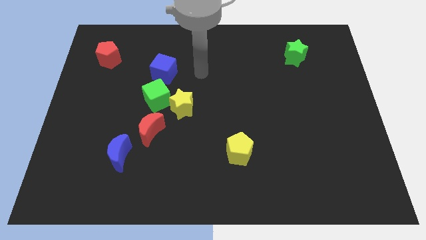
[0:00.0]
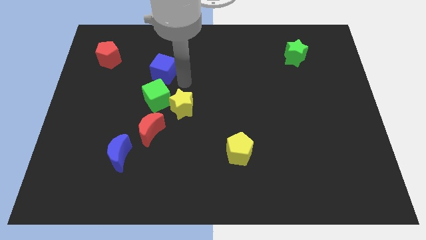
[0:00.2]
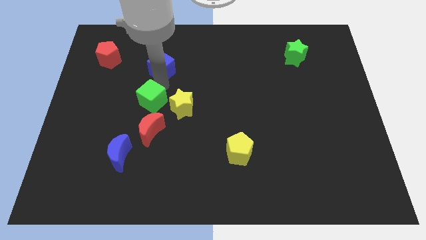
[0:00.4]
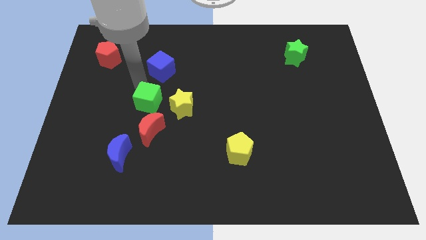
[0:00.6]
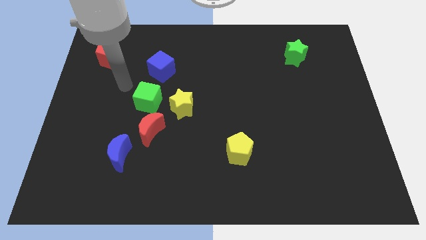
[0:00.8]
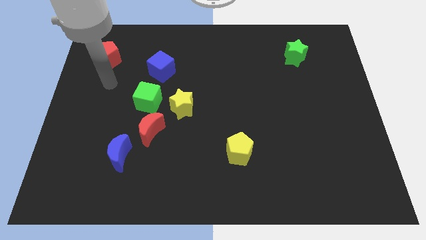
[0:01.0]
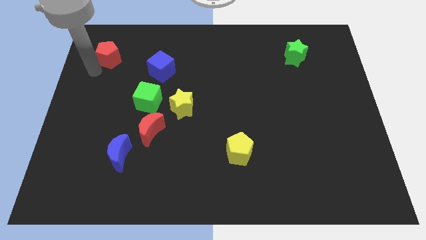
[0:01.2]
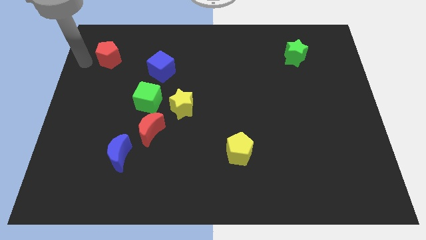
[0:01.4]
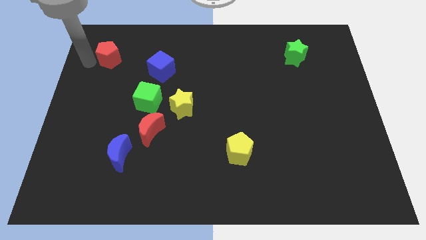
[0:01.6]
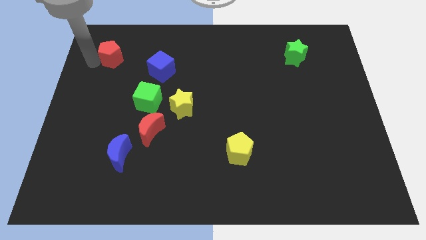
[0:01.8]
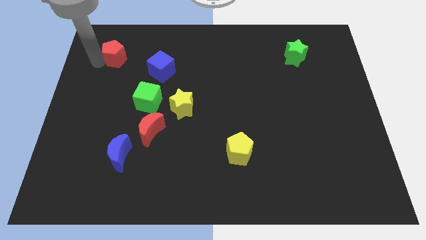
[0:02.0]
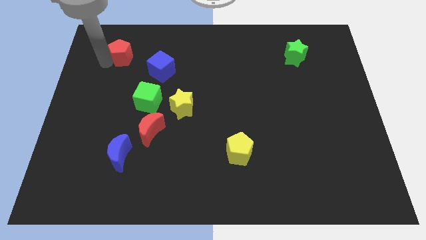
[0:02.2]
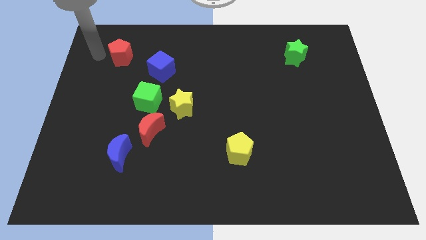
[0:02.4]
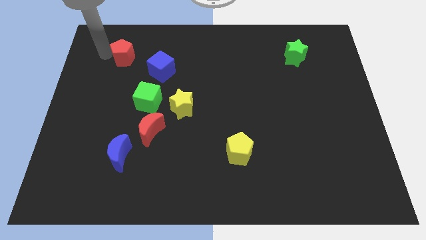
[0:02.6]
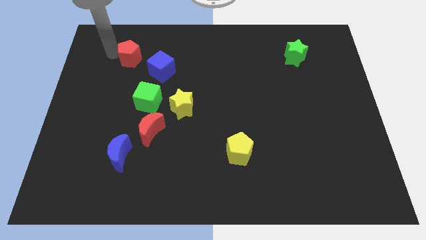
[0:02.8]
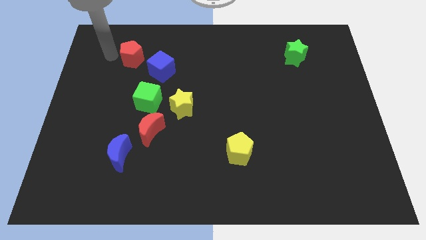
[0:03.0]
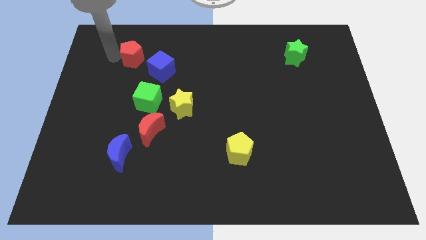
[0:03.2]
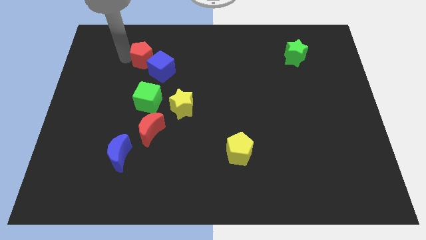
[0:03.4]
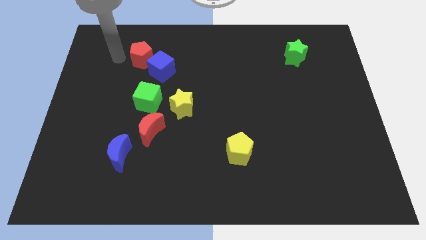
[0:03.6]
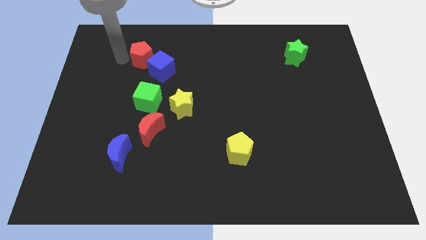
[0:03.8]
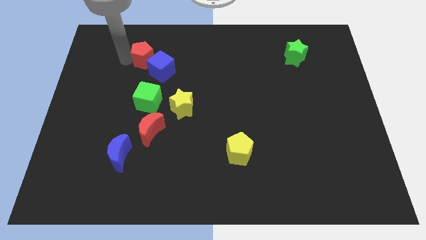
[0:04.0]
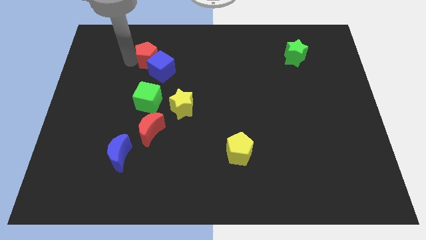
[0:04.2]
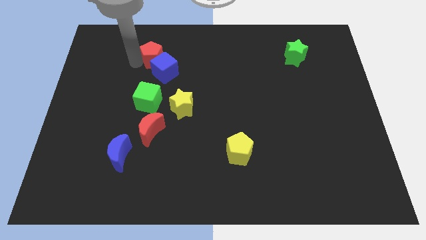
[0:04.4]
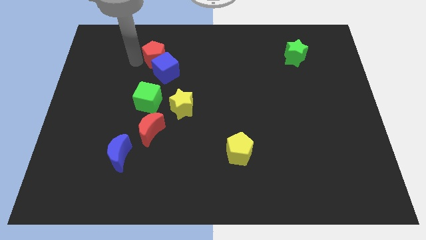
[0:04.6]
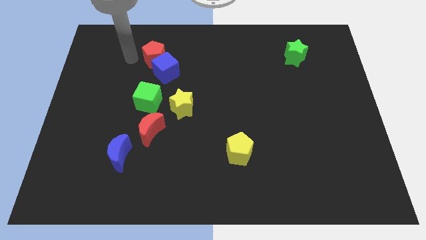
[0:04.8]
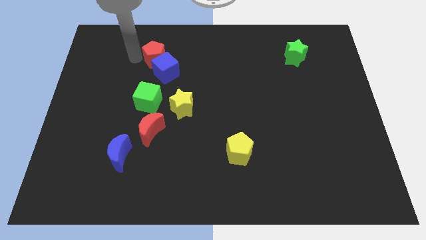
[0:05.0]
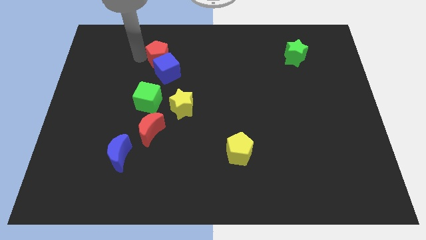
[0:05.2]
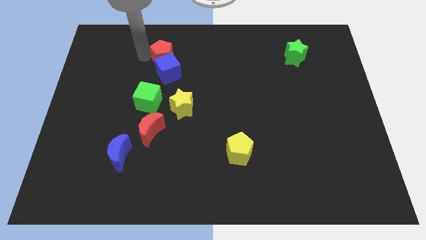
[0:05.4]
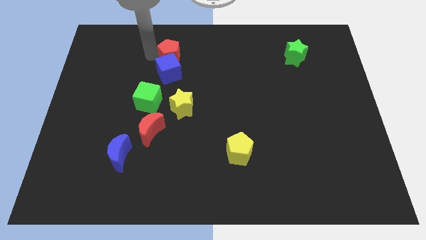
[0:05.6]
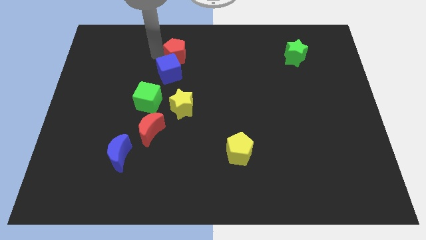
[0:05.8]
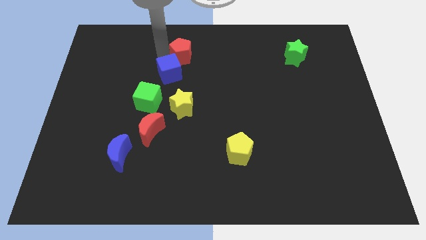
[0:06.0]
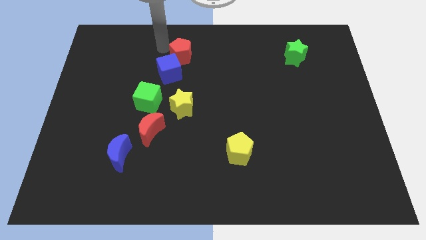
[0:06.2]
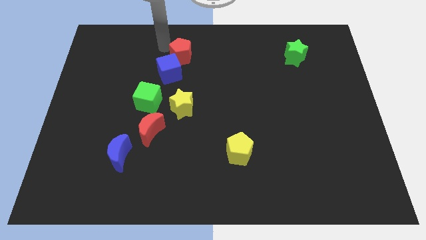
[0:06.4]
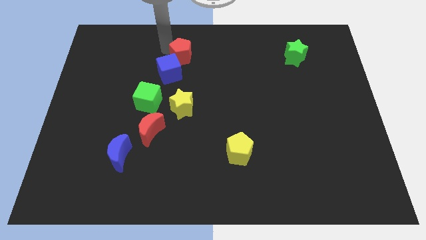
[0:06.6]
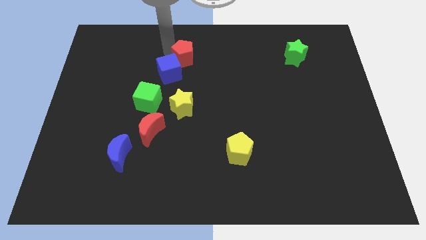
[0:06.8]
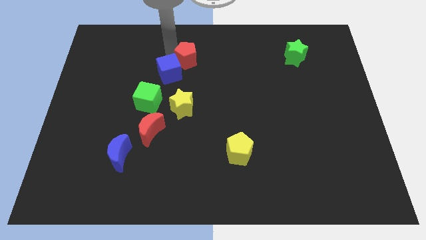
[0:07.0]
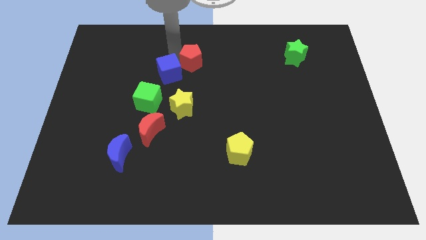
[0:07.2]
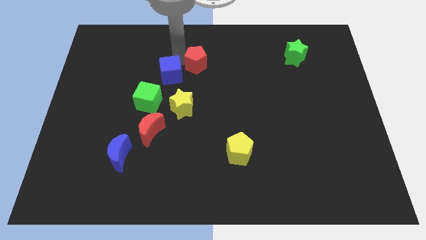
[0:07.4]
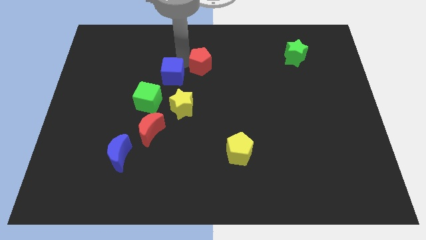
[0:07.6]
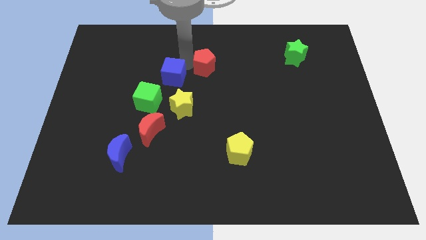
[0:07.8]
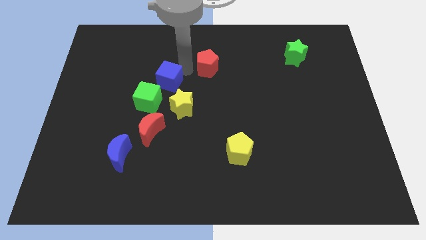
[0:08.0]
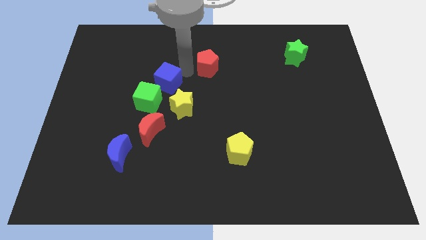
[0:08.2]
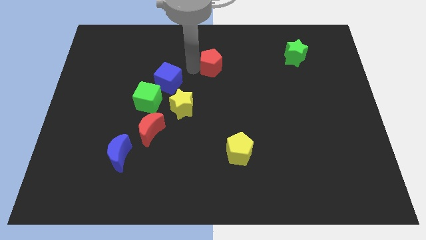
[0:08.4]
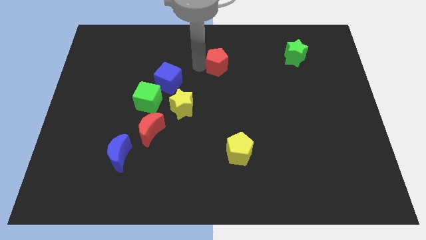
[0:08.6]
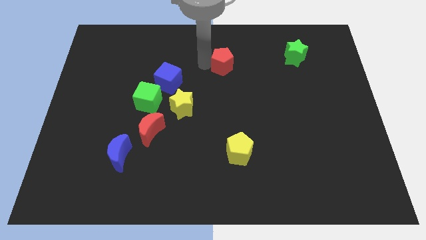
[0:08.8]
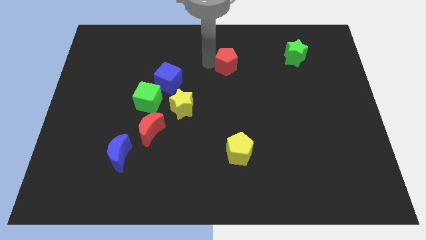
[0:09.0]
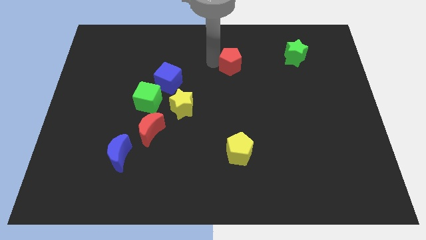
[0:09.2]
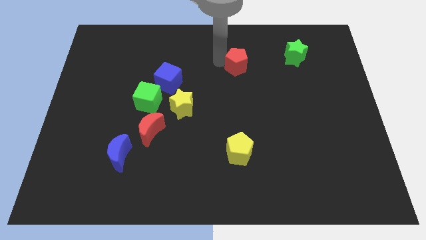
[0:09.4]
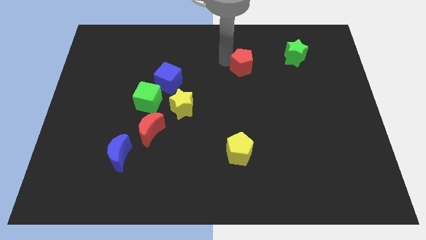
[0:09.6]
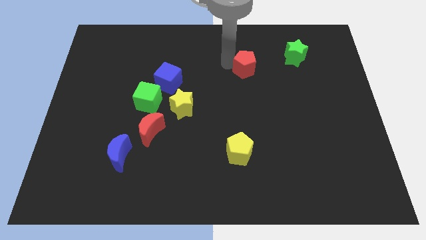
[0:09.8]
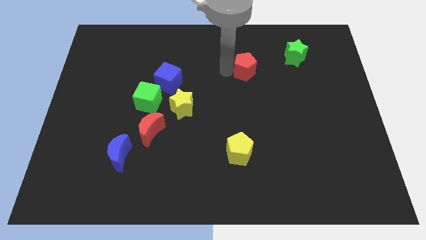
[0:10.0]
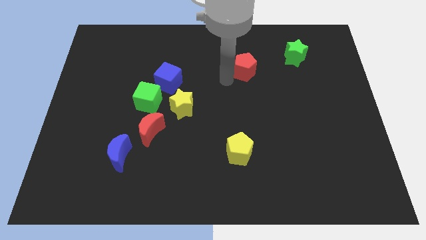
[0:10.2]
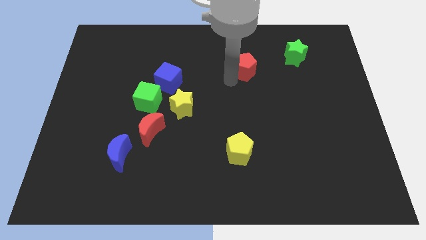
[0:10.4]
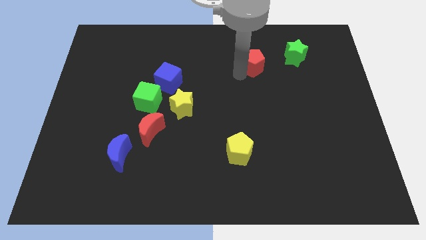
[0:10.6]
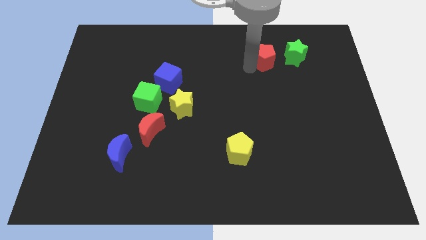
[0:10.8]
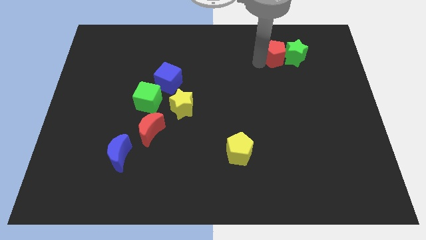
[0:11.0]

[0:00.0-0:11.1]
move the red pentagon to the green star

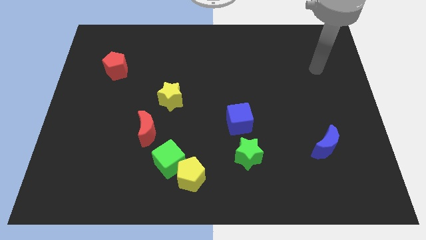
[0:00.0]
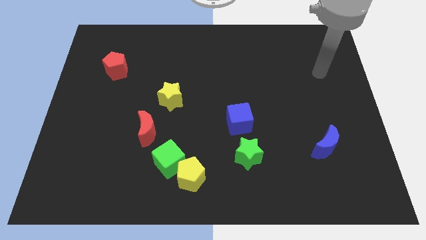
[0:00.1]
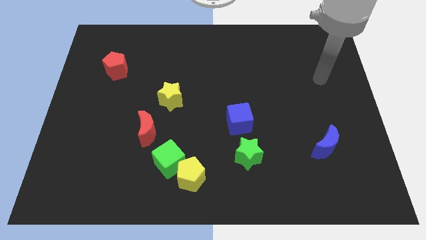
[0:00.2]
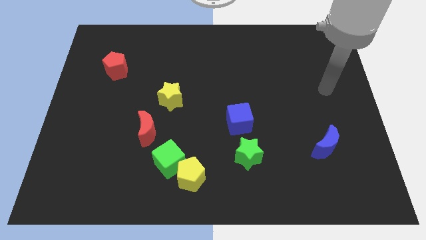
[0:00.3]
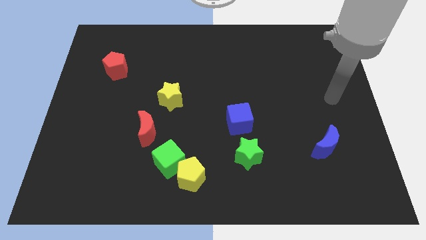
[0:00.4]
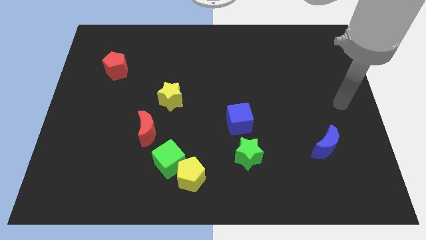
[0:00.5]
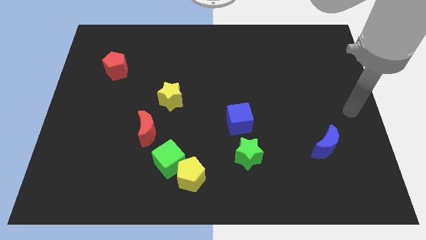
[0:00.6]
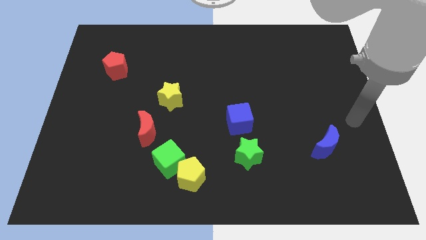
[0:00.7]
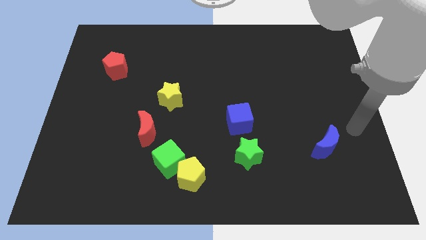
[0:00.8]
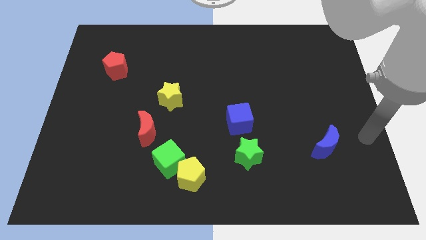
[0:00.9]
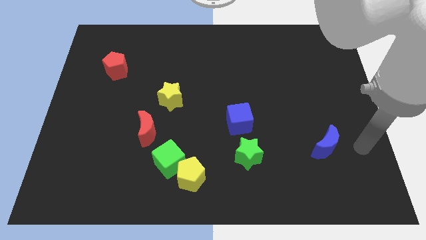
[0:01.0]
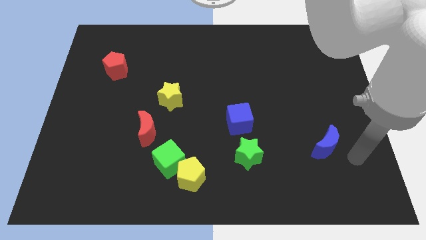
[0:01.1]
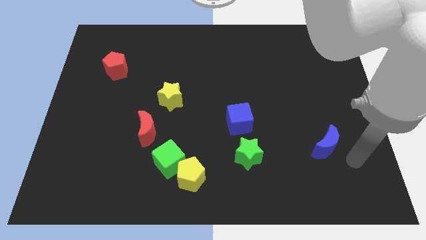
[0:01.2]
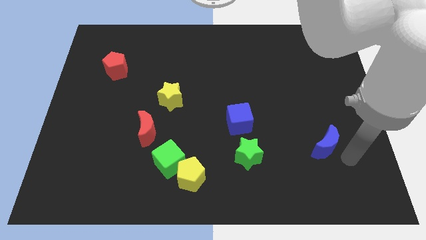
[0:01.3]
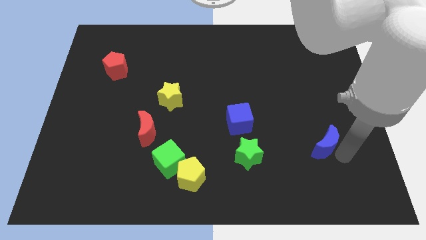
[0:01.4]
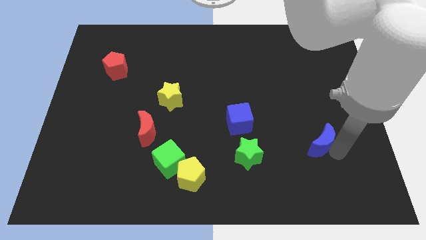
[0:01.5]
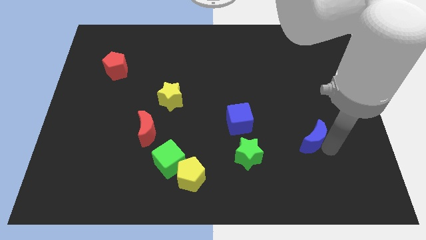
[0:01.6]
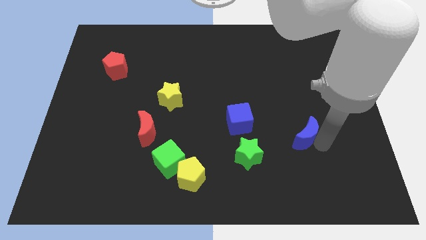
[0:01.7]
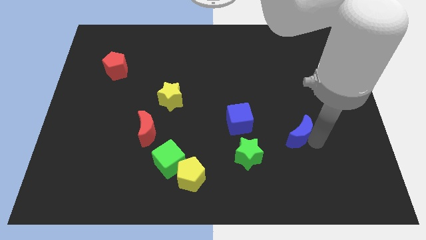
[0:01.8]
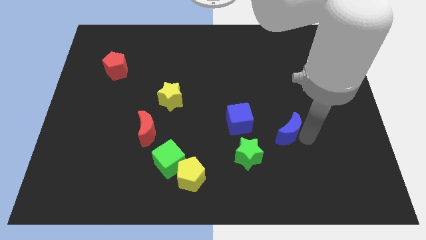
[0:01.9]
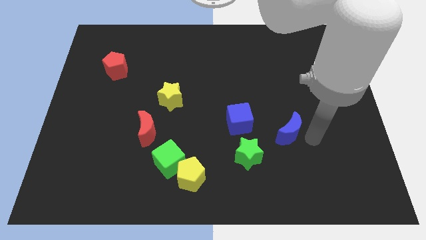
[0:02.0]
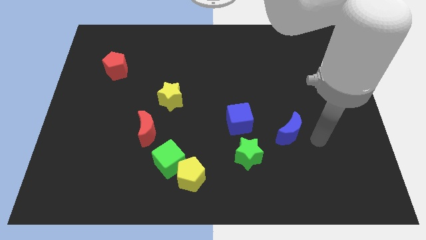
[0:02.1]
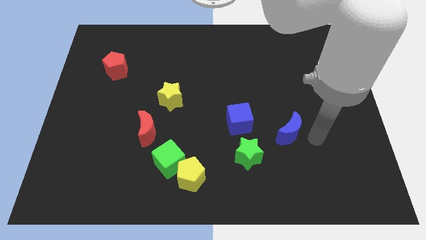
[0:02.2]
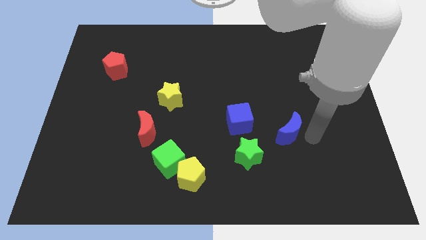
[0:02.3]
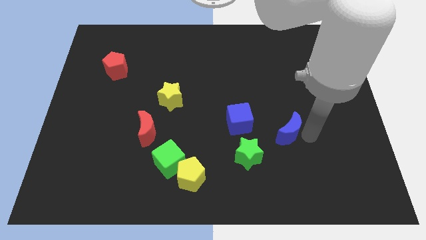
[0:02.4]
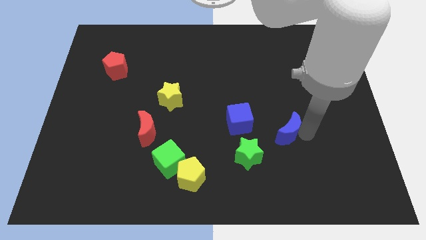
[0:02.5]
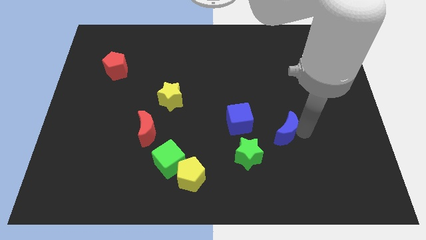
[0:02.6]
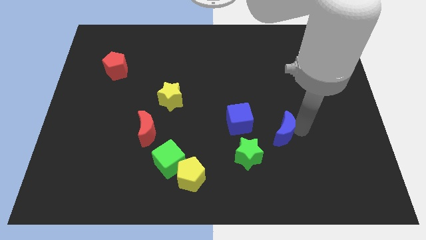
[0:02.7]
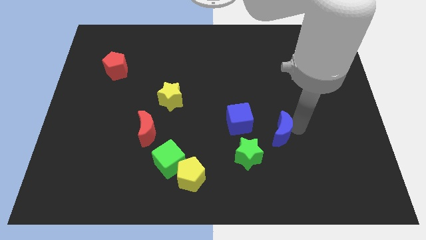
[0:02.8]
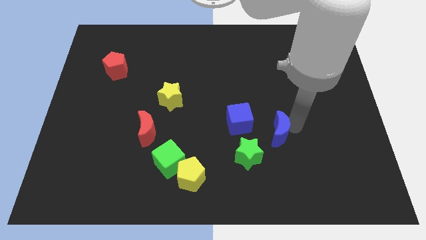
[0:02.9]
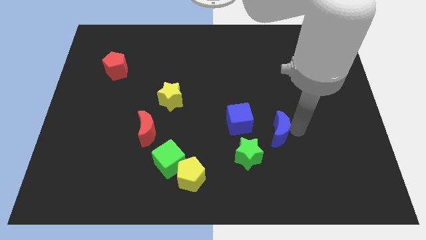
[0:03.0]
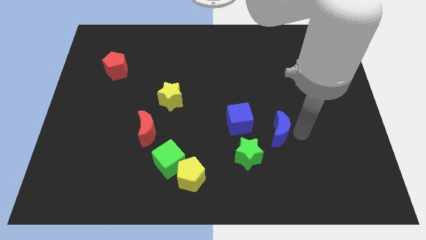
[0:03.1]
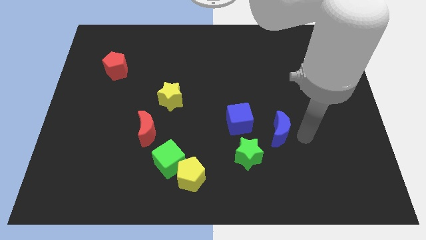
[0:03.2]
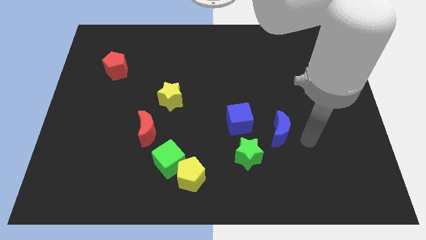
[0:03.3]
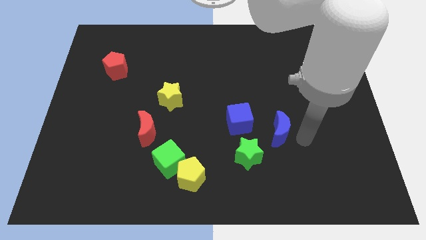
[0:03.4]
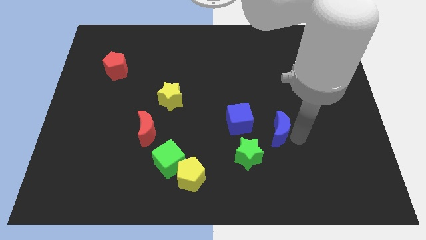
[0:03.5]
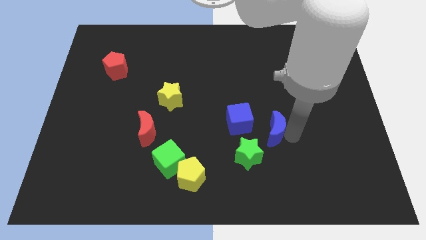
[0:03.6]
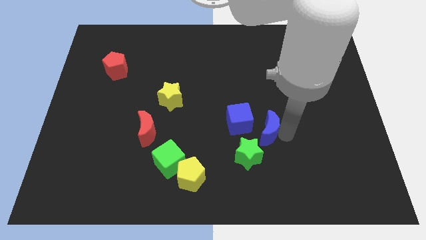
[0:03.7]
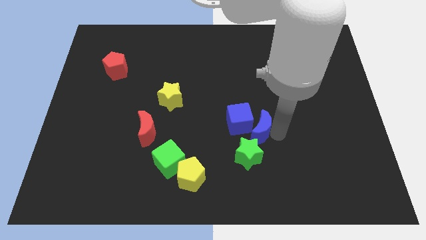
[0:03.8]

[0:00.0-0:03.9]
push the blue moon towards the blue cube
